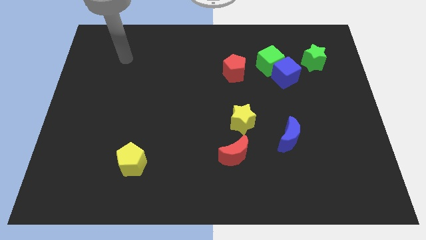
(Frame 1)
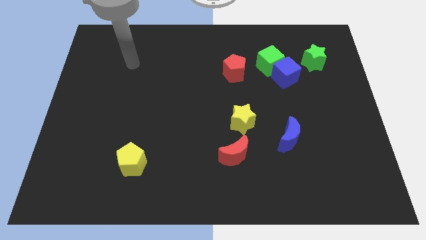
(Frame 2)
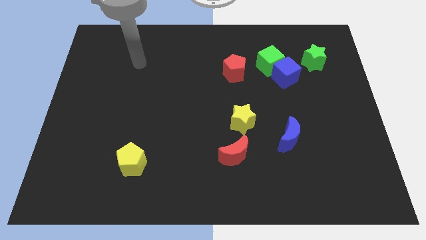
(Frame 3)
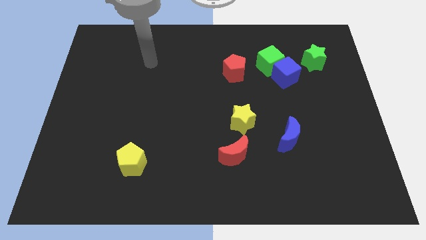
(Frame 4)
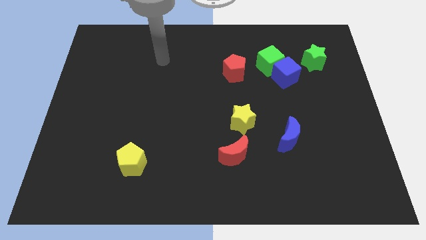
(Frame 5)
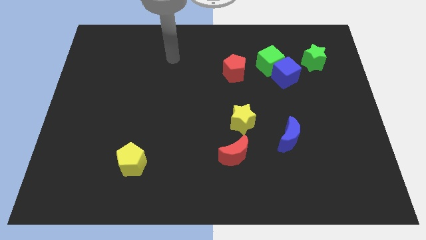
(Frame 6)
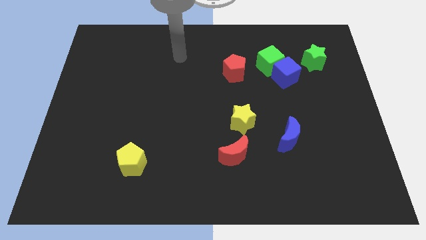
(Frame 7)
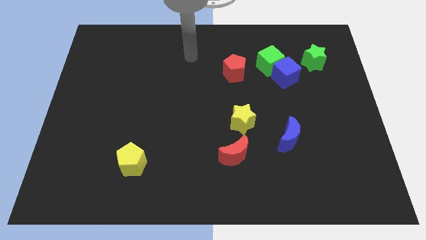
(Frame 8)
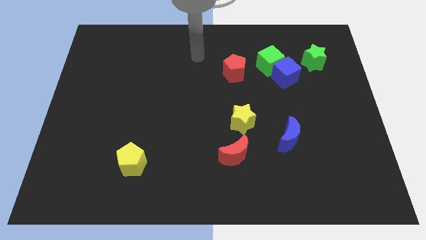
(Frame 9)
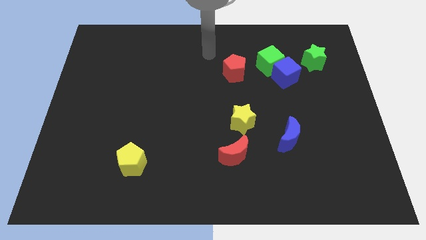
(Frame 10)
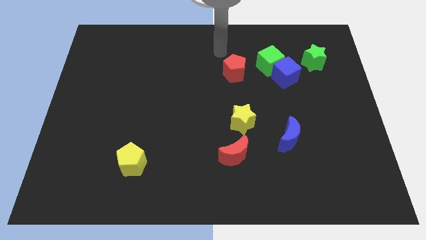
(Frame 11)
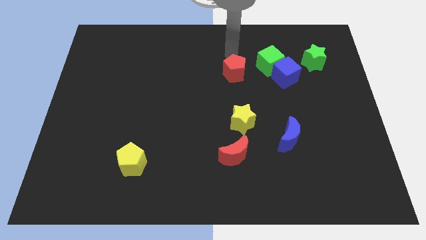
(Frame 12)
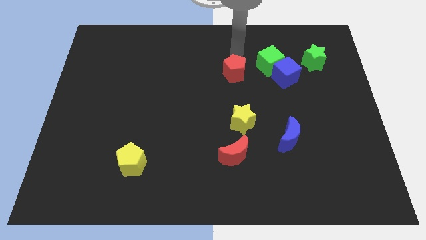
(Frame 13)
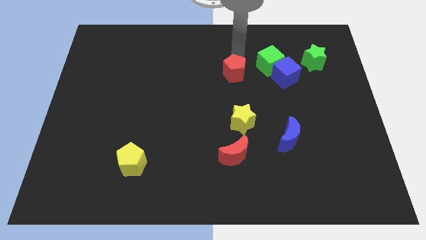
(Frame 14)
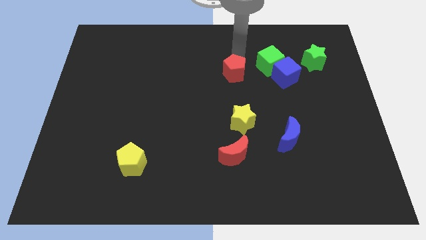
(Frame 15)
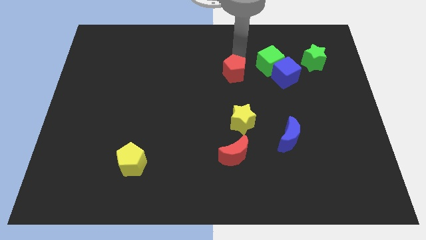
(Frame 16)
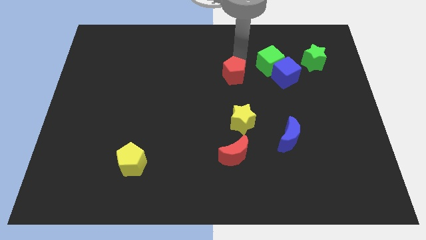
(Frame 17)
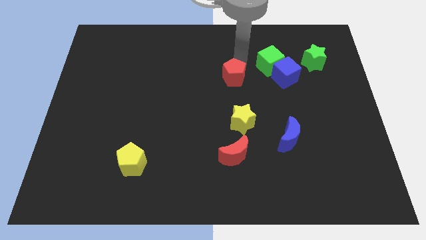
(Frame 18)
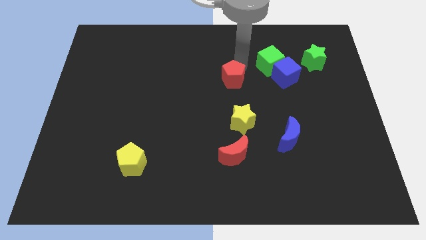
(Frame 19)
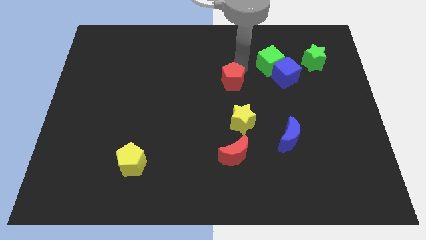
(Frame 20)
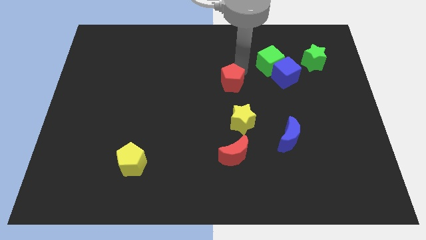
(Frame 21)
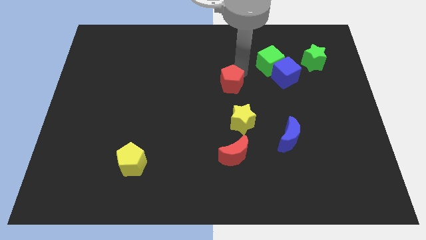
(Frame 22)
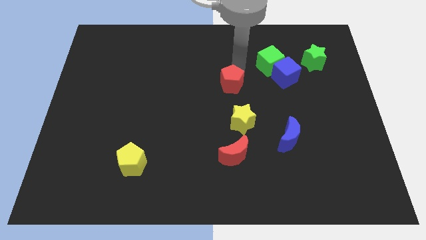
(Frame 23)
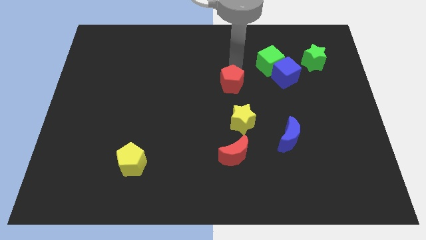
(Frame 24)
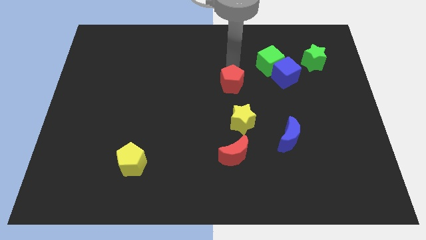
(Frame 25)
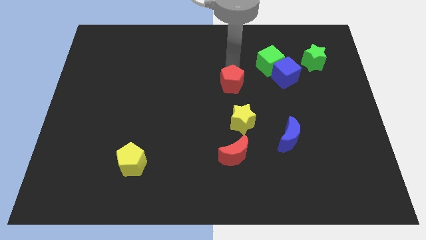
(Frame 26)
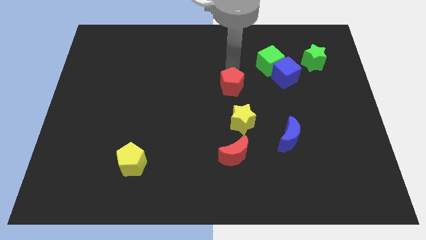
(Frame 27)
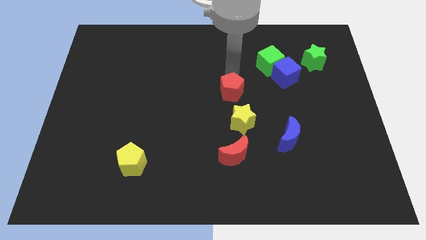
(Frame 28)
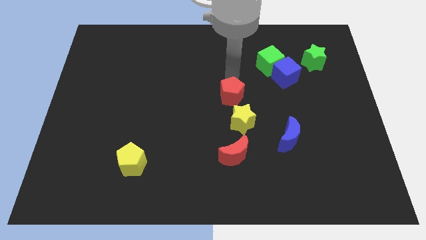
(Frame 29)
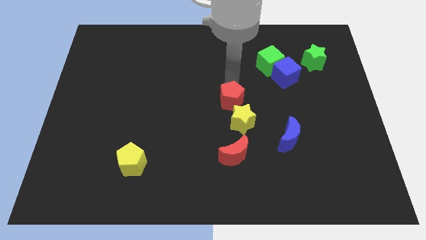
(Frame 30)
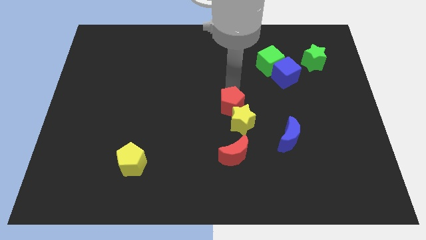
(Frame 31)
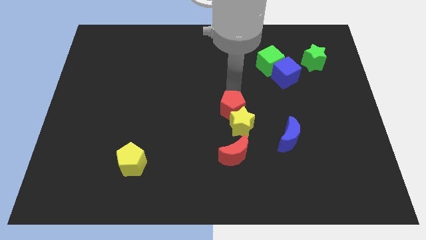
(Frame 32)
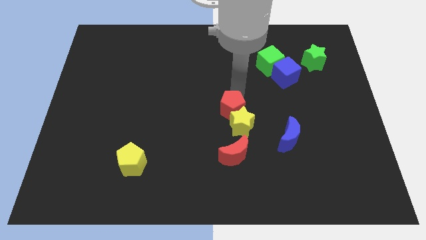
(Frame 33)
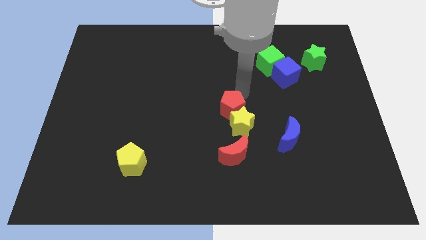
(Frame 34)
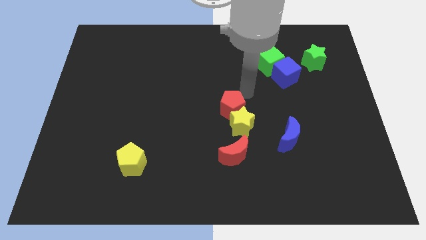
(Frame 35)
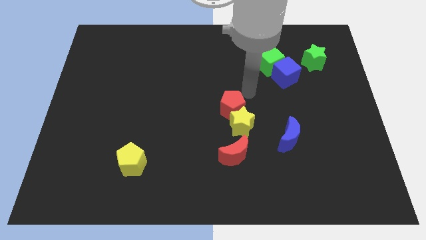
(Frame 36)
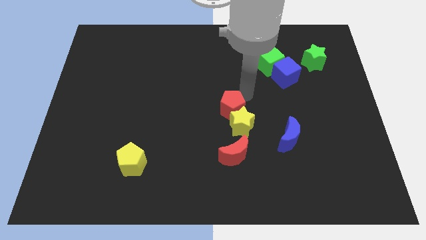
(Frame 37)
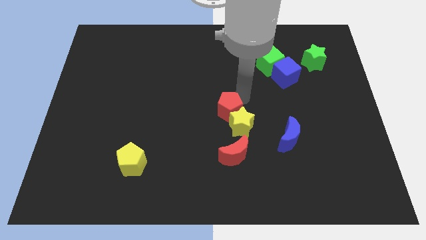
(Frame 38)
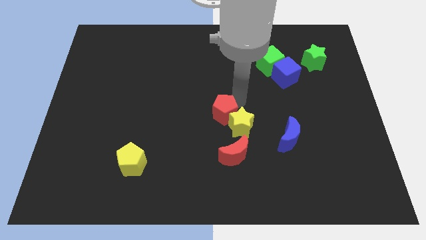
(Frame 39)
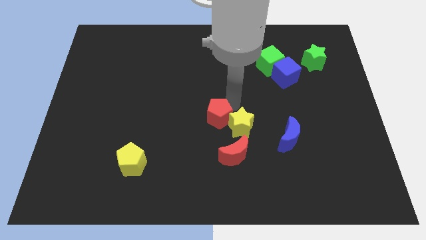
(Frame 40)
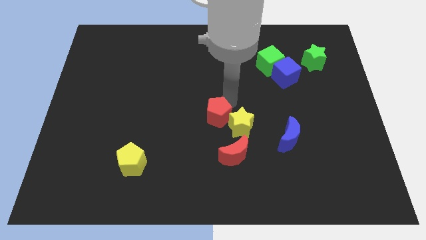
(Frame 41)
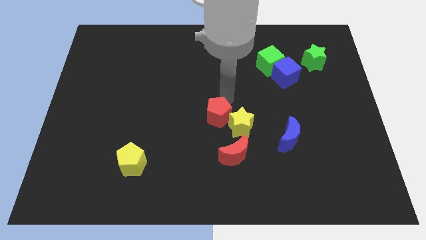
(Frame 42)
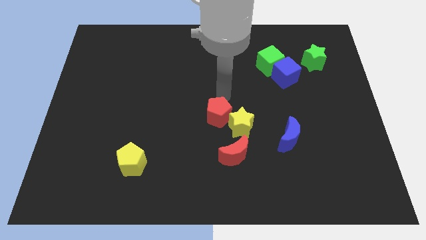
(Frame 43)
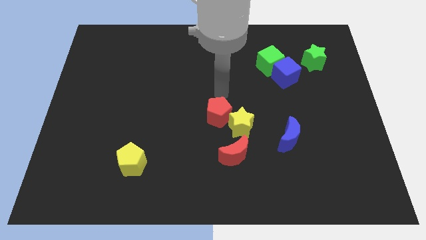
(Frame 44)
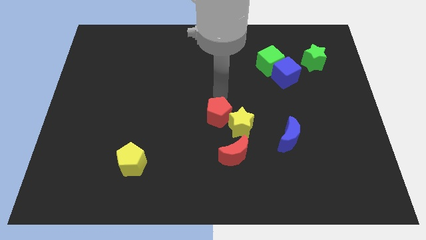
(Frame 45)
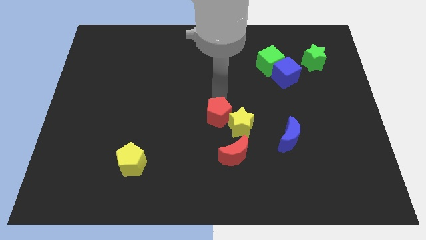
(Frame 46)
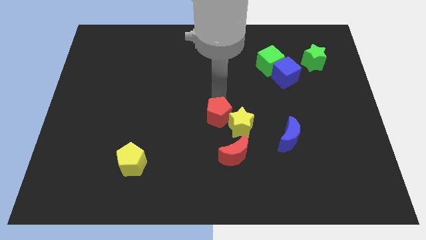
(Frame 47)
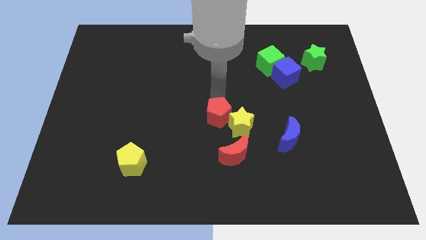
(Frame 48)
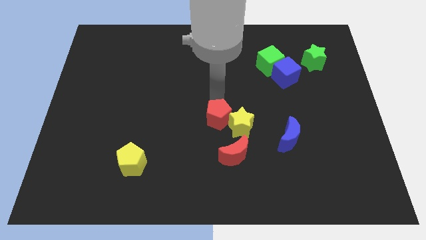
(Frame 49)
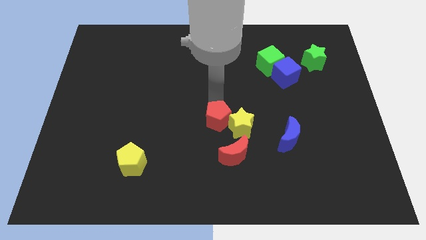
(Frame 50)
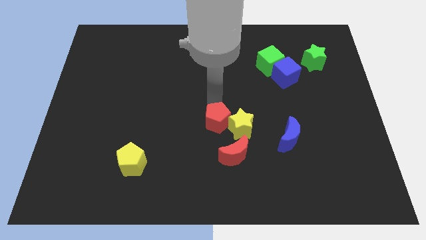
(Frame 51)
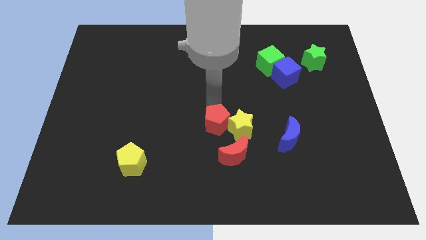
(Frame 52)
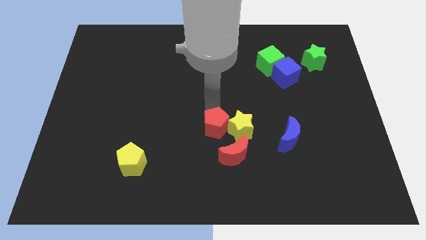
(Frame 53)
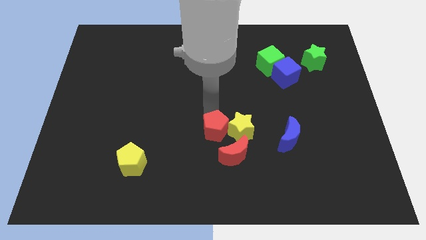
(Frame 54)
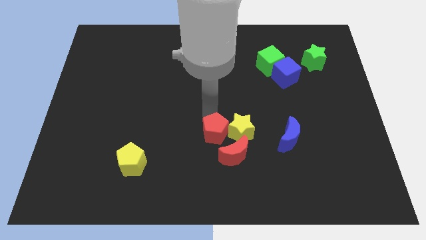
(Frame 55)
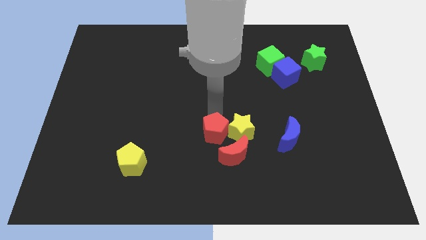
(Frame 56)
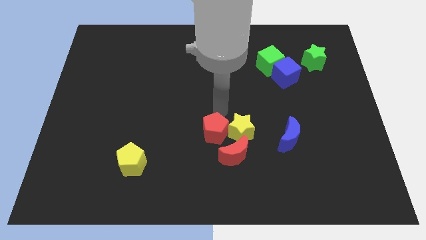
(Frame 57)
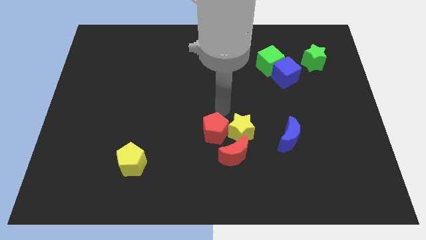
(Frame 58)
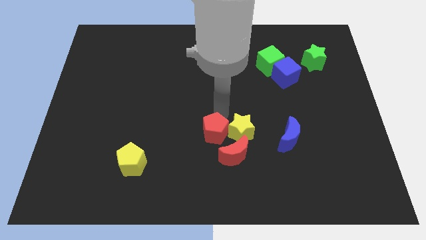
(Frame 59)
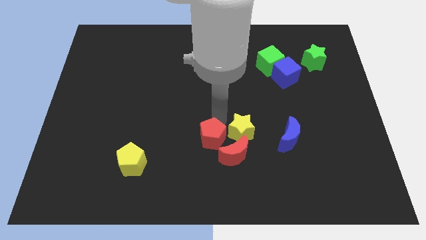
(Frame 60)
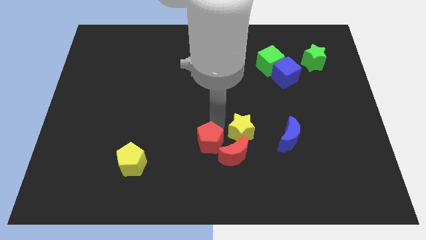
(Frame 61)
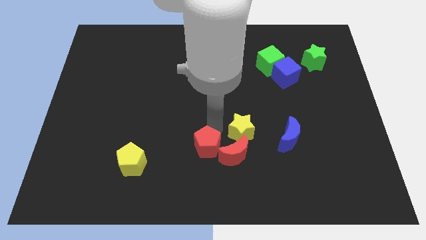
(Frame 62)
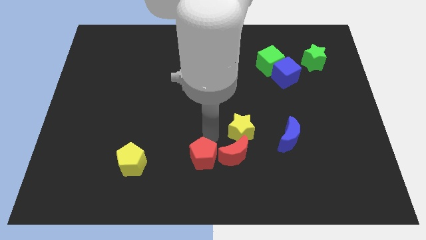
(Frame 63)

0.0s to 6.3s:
put the red pentagon to the bottom
